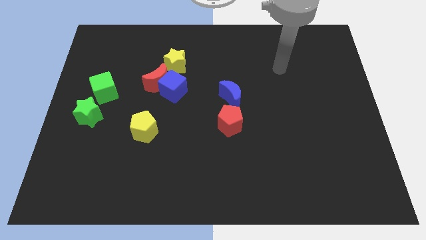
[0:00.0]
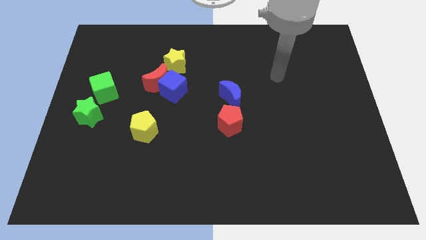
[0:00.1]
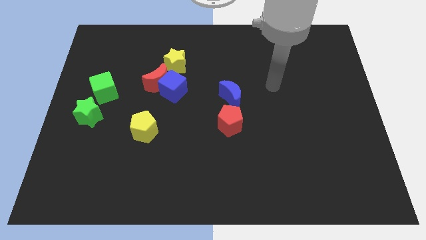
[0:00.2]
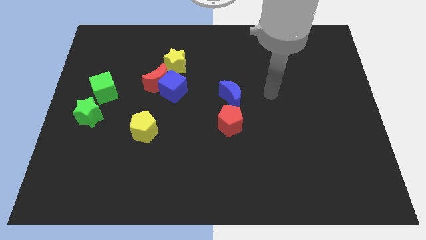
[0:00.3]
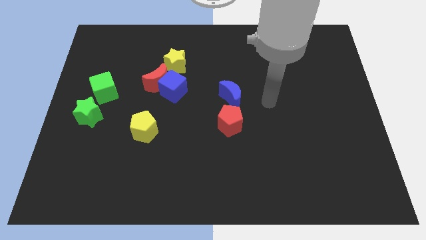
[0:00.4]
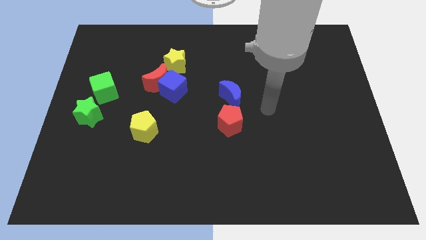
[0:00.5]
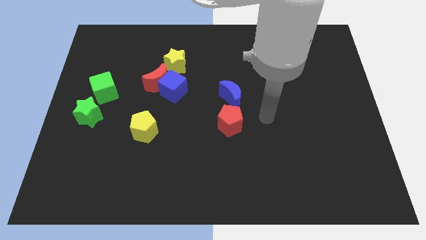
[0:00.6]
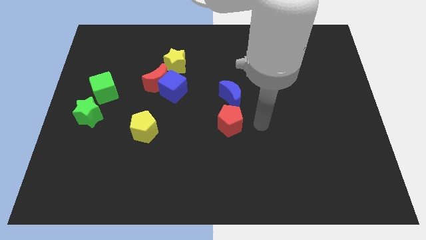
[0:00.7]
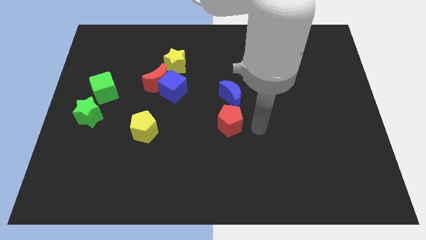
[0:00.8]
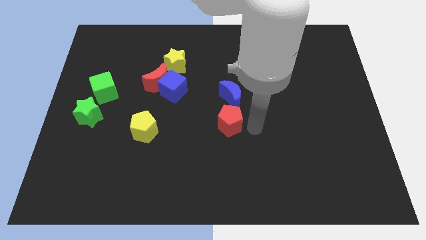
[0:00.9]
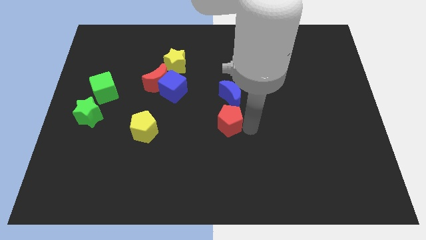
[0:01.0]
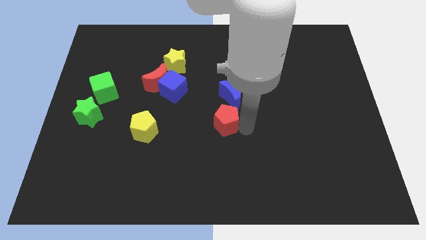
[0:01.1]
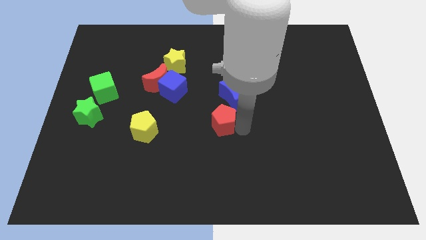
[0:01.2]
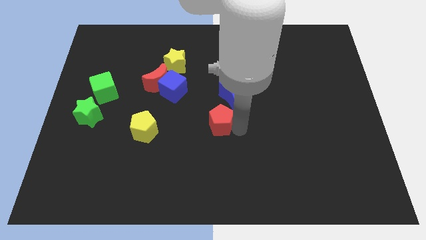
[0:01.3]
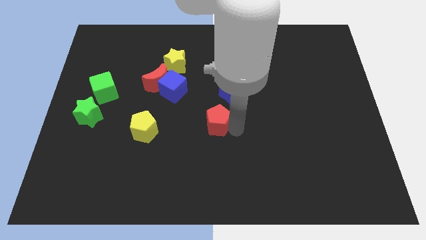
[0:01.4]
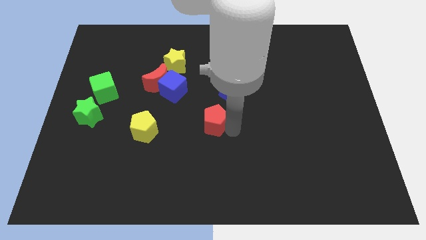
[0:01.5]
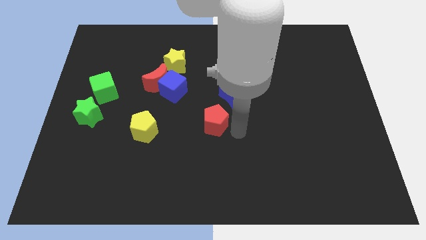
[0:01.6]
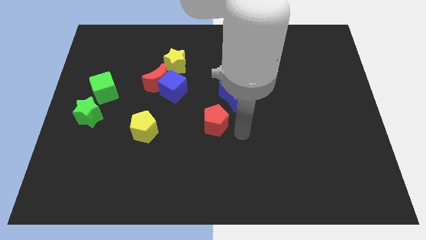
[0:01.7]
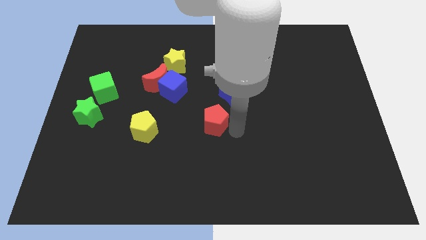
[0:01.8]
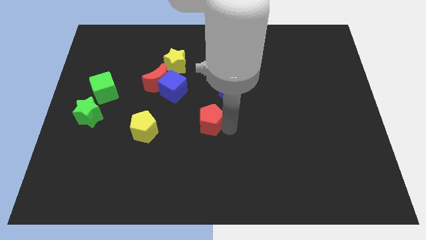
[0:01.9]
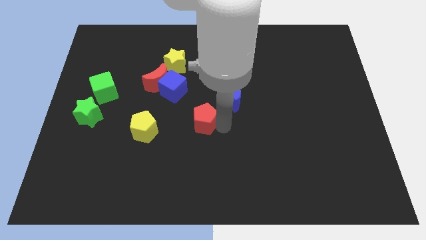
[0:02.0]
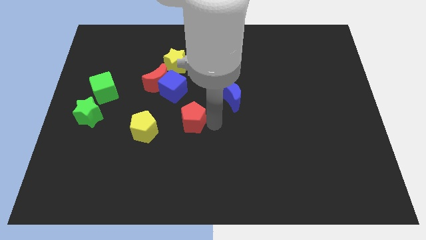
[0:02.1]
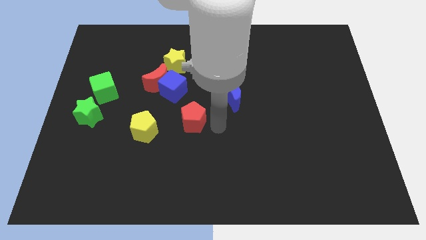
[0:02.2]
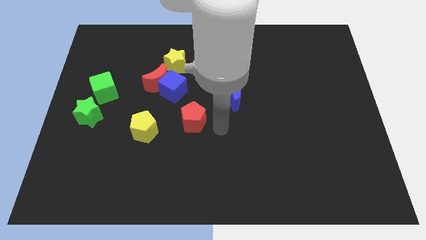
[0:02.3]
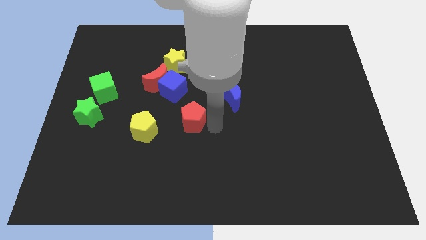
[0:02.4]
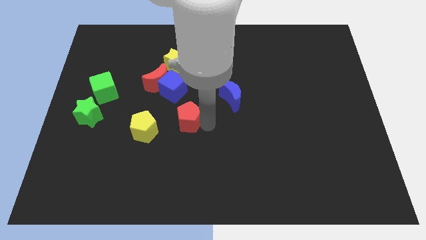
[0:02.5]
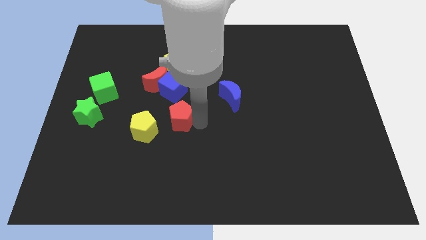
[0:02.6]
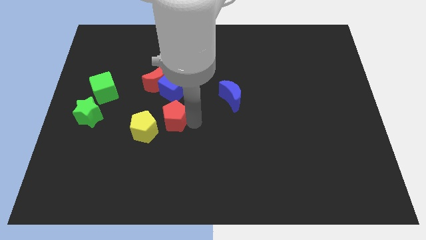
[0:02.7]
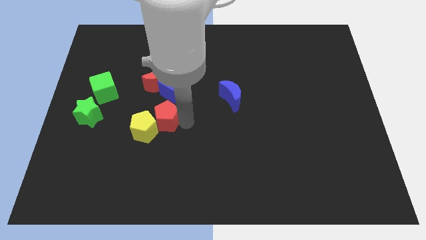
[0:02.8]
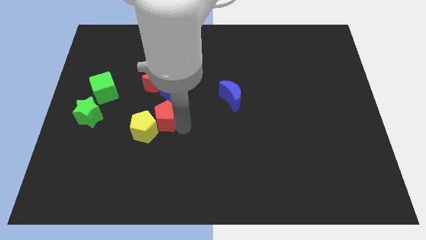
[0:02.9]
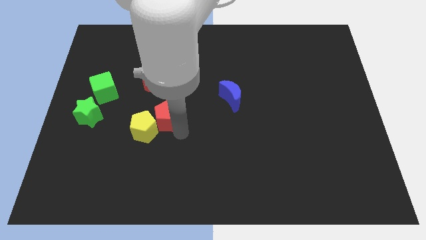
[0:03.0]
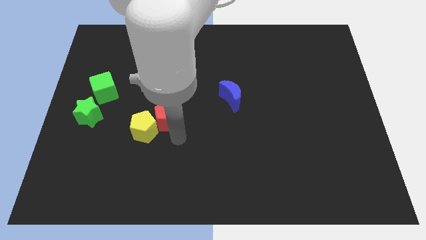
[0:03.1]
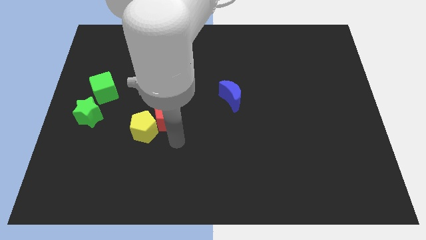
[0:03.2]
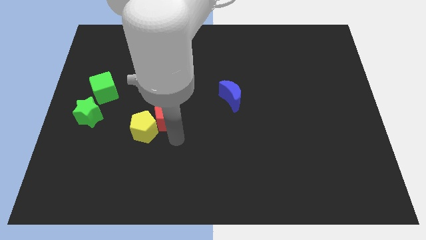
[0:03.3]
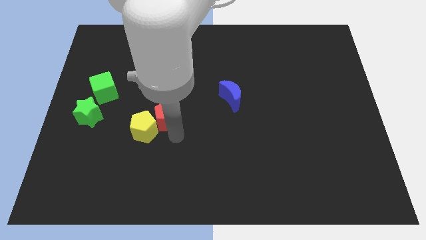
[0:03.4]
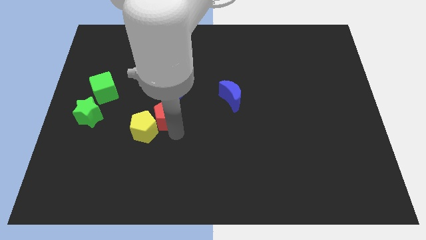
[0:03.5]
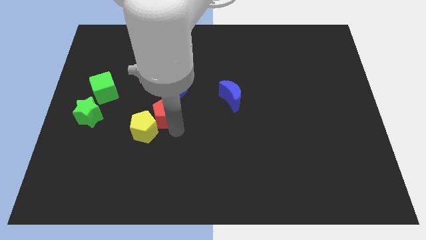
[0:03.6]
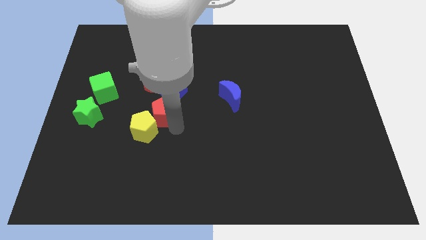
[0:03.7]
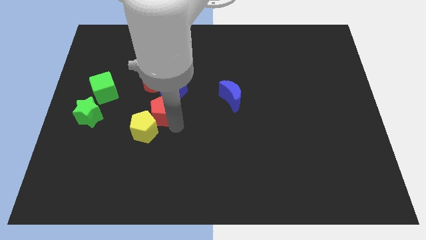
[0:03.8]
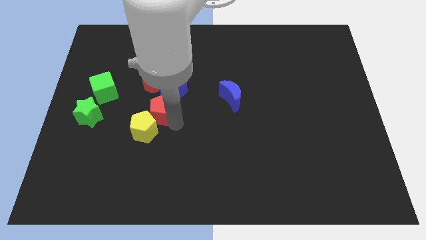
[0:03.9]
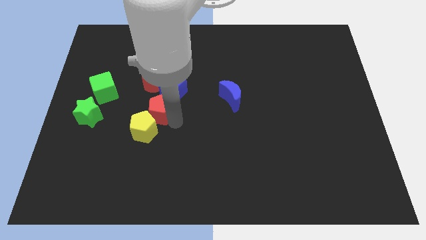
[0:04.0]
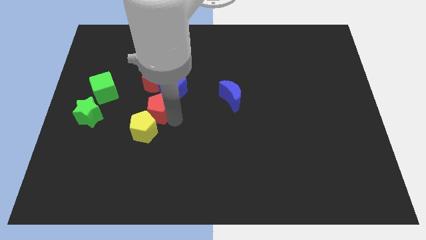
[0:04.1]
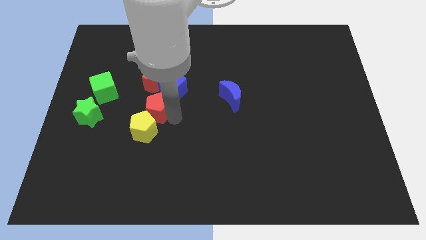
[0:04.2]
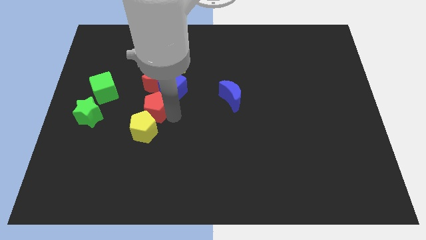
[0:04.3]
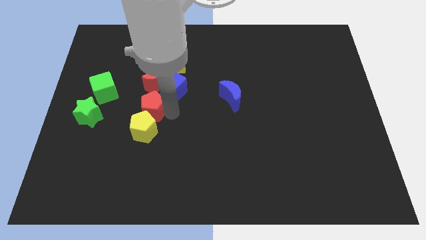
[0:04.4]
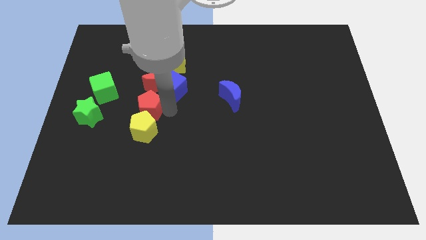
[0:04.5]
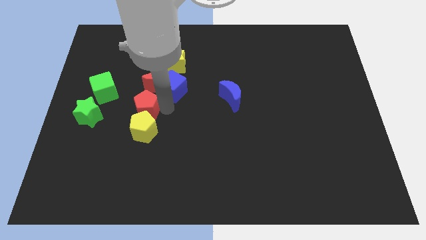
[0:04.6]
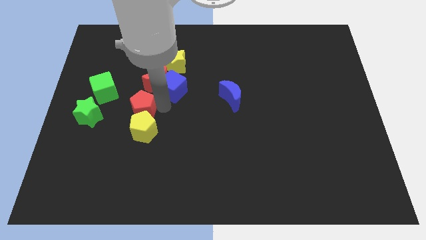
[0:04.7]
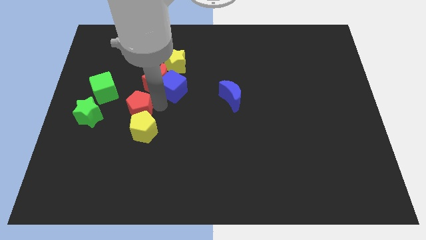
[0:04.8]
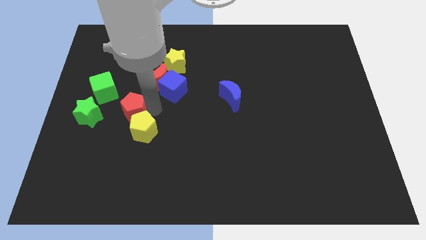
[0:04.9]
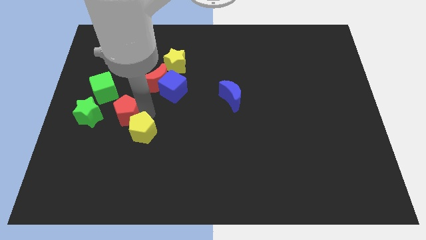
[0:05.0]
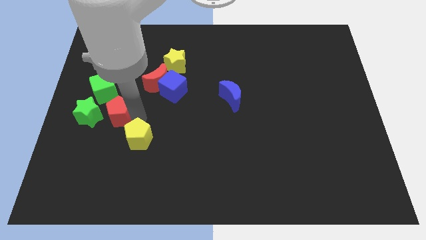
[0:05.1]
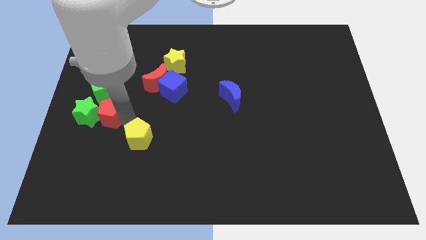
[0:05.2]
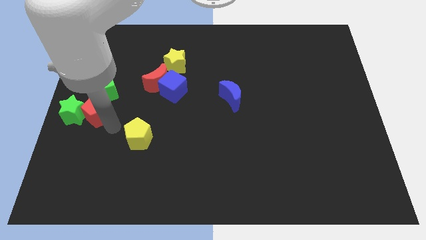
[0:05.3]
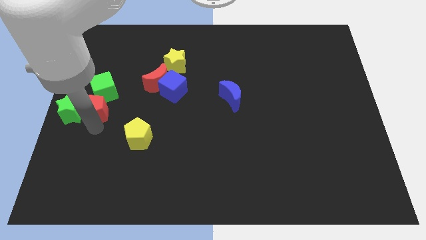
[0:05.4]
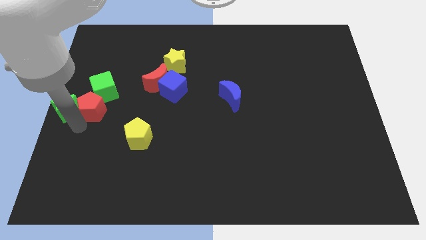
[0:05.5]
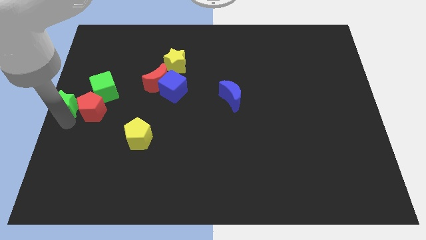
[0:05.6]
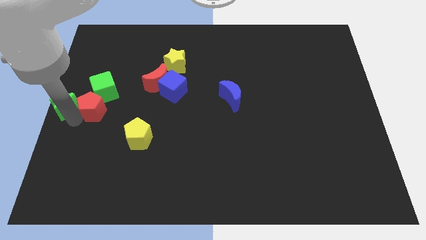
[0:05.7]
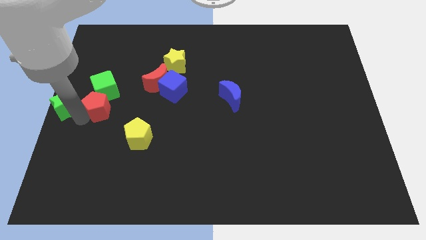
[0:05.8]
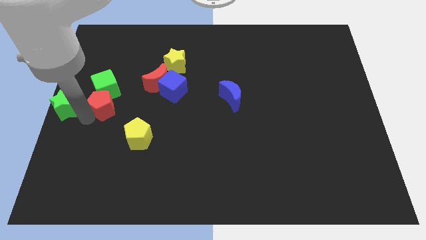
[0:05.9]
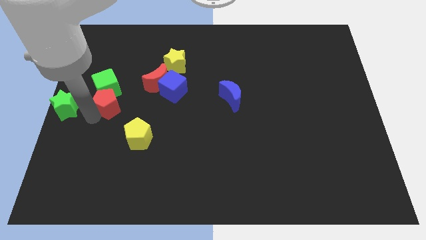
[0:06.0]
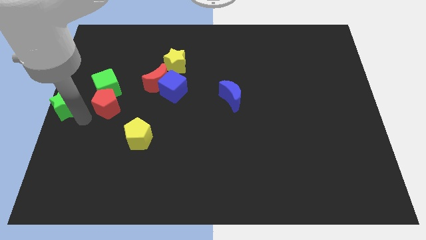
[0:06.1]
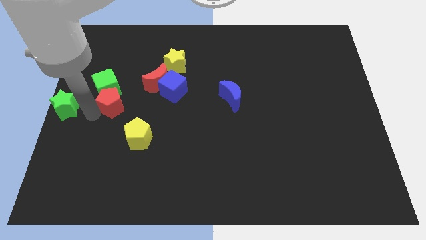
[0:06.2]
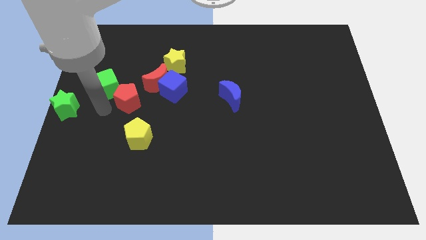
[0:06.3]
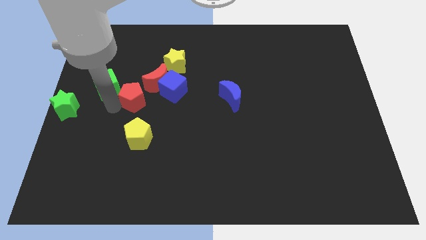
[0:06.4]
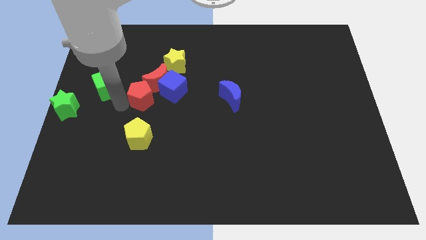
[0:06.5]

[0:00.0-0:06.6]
slide the red pentagon close to the red moon
